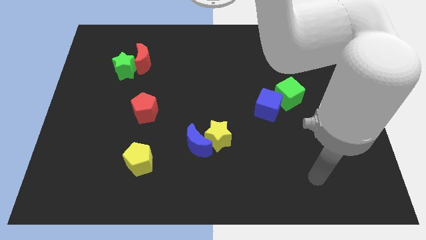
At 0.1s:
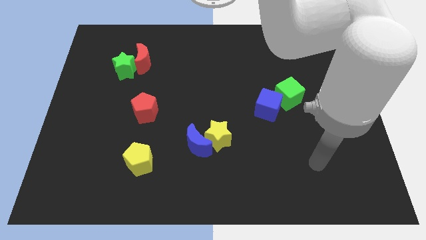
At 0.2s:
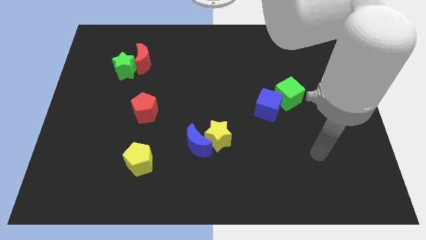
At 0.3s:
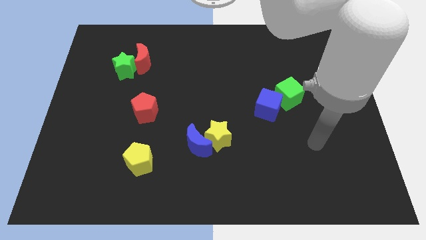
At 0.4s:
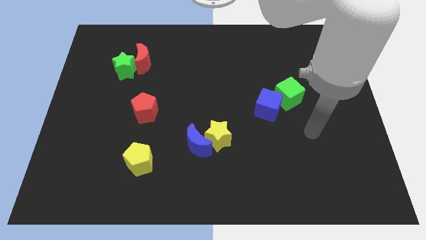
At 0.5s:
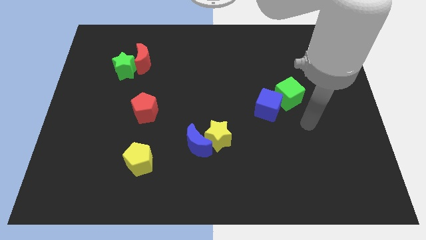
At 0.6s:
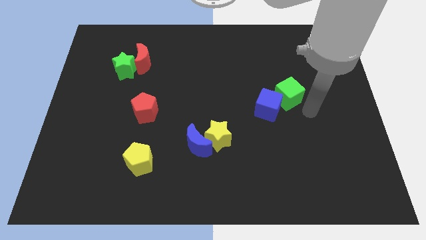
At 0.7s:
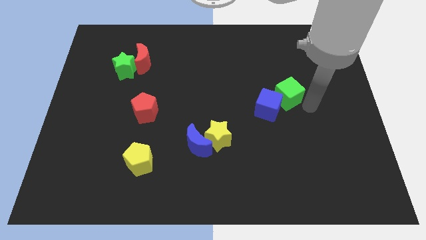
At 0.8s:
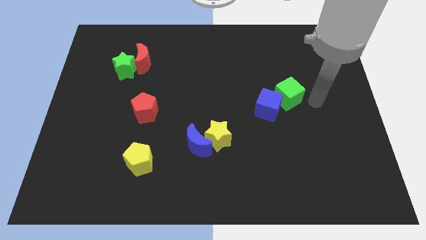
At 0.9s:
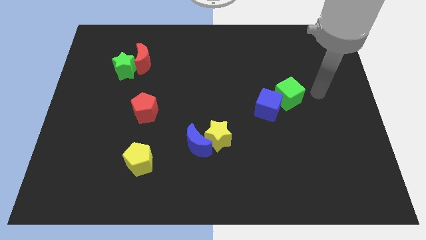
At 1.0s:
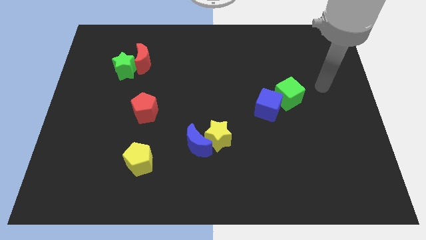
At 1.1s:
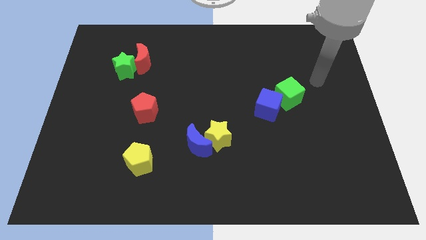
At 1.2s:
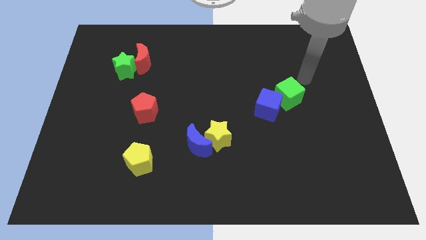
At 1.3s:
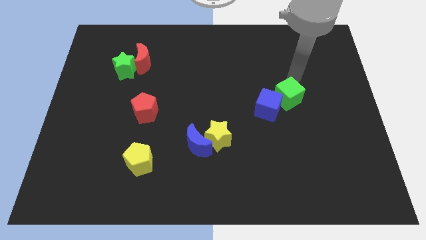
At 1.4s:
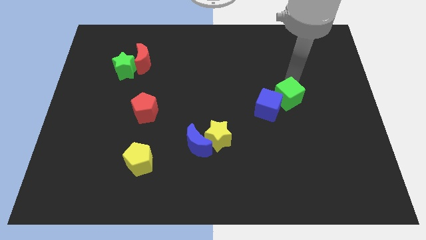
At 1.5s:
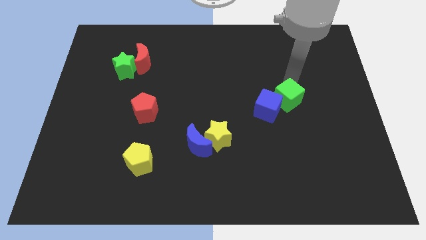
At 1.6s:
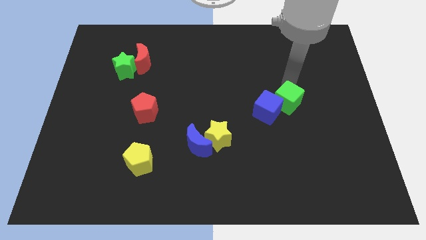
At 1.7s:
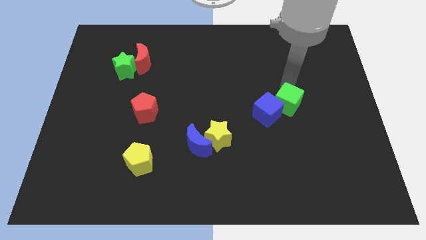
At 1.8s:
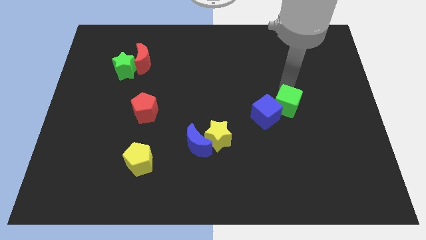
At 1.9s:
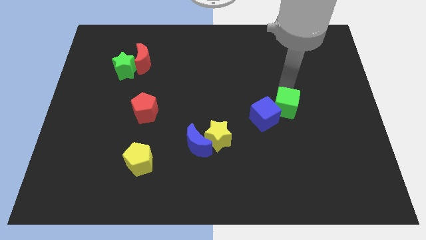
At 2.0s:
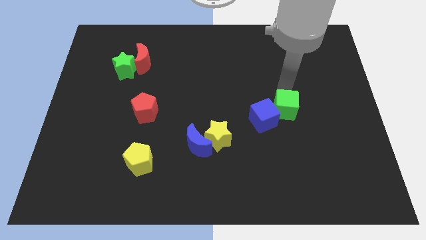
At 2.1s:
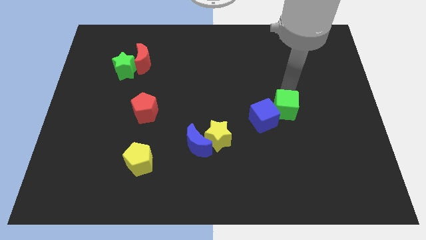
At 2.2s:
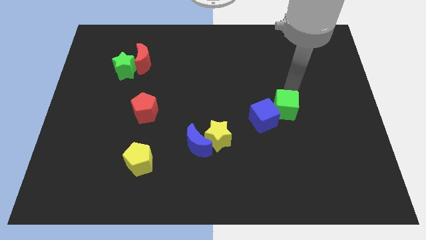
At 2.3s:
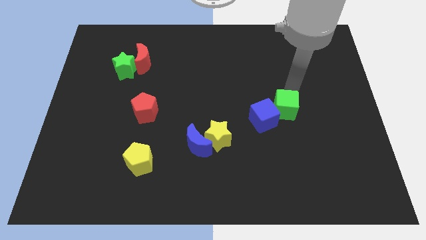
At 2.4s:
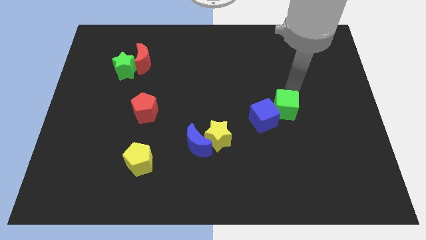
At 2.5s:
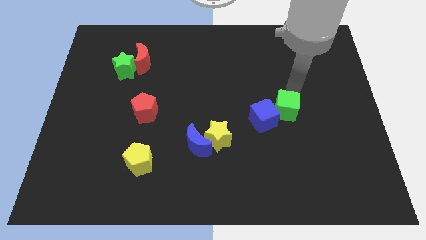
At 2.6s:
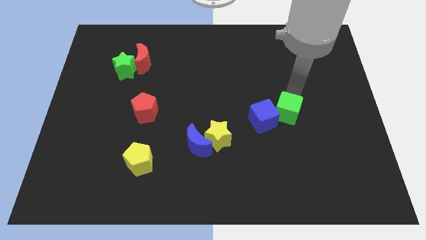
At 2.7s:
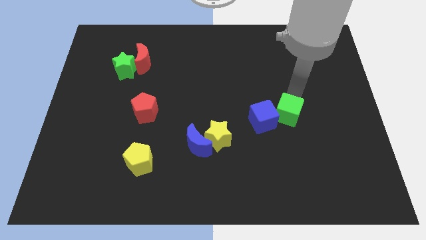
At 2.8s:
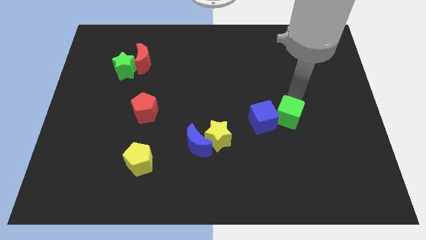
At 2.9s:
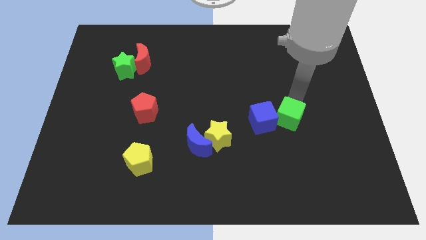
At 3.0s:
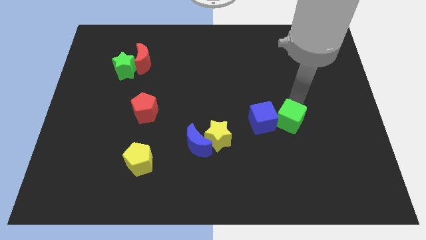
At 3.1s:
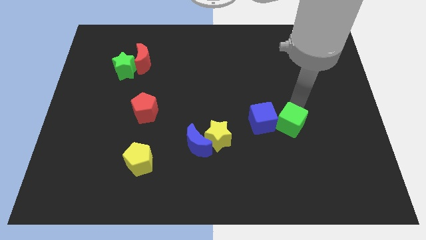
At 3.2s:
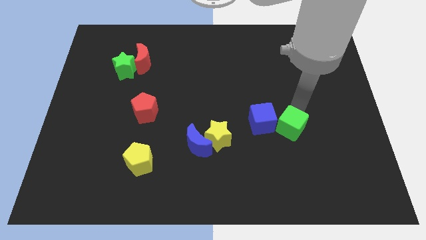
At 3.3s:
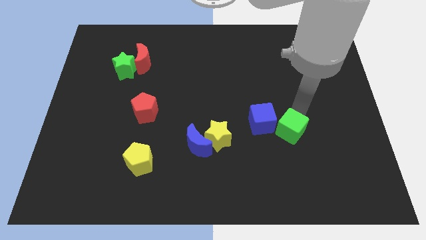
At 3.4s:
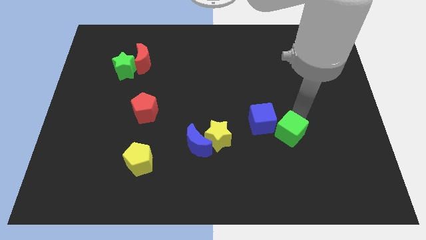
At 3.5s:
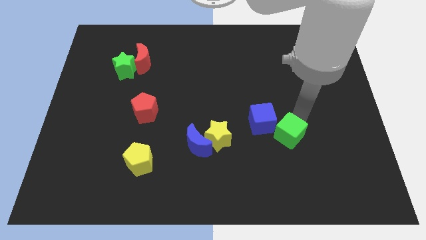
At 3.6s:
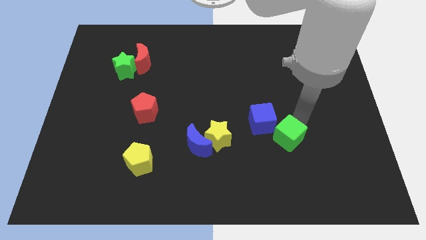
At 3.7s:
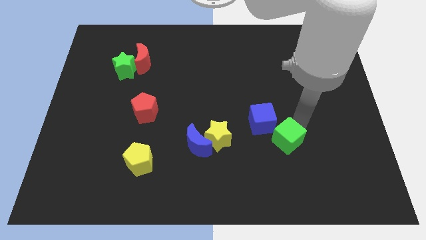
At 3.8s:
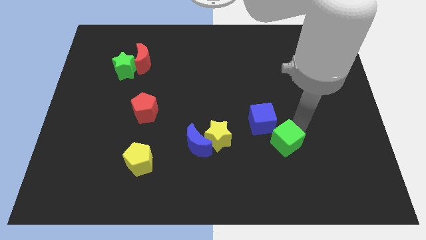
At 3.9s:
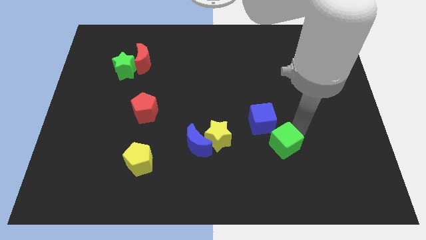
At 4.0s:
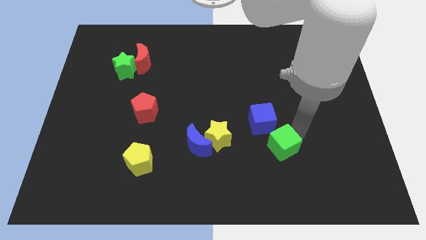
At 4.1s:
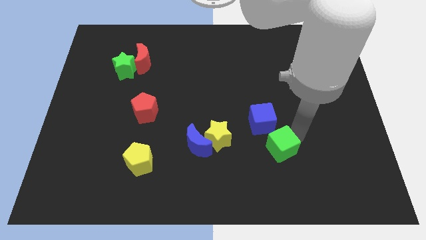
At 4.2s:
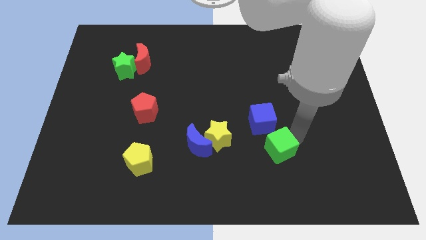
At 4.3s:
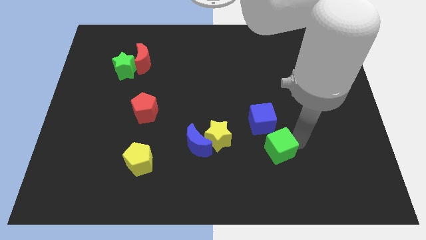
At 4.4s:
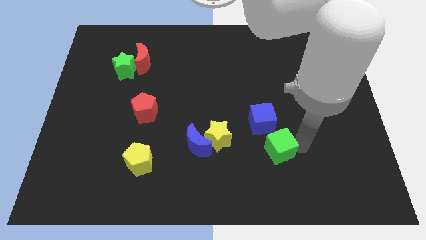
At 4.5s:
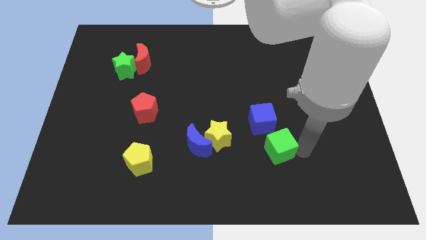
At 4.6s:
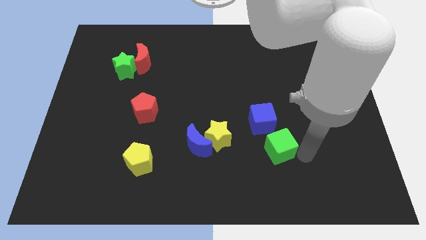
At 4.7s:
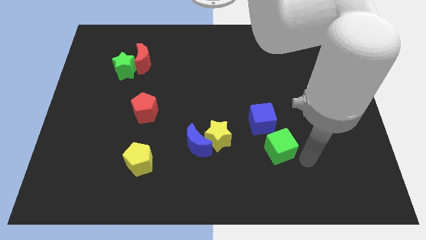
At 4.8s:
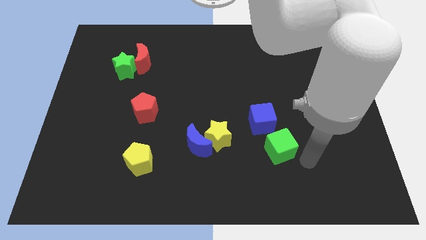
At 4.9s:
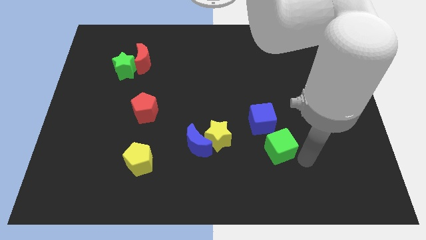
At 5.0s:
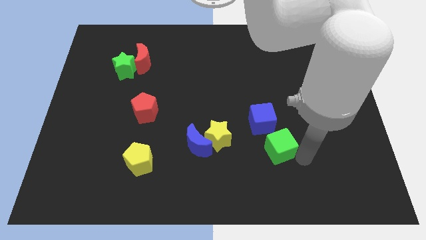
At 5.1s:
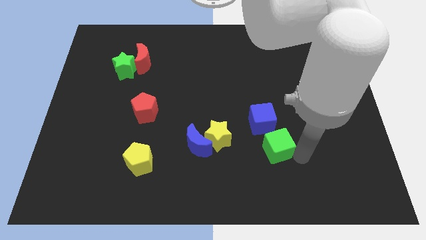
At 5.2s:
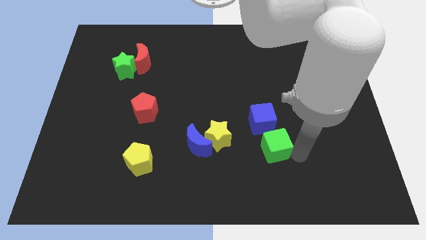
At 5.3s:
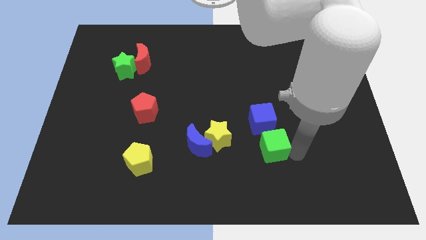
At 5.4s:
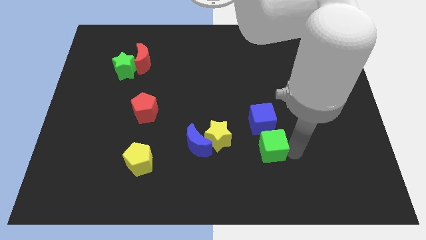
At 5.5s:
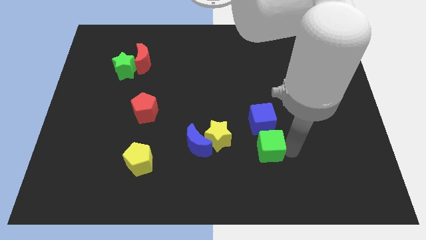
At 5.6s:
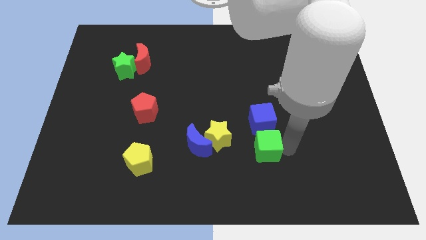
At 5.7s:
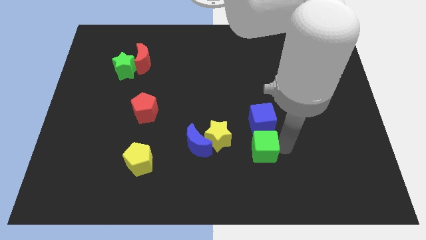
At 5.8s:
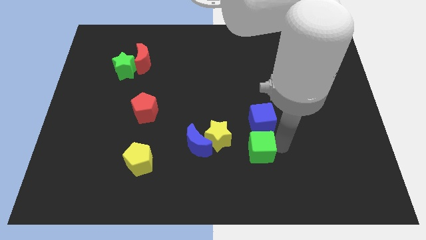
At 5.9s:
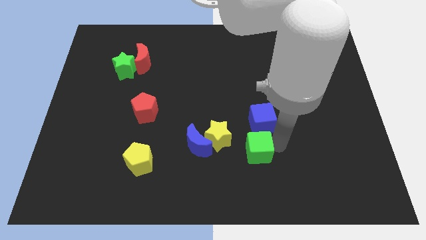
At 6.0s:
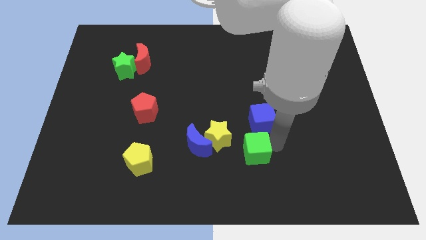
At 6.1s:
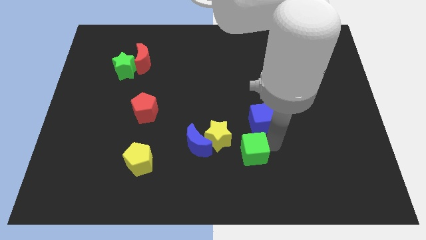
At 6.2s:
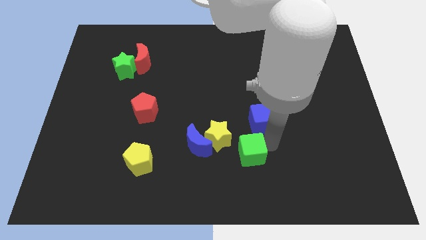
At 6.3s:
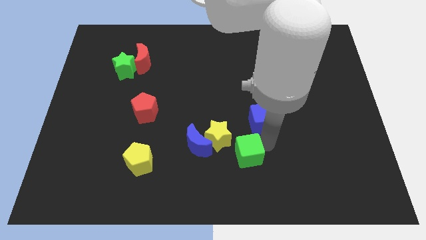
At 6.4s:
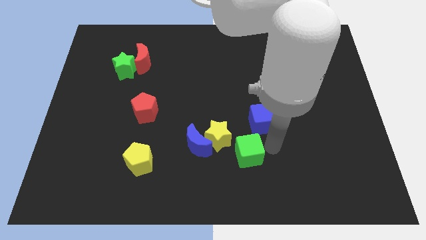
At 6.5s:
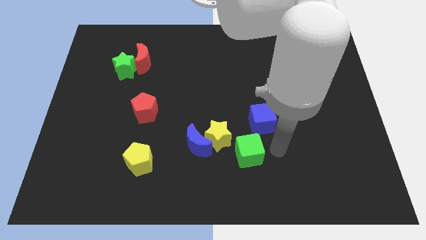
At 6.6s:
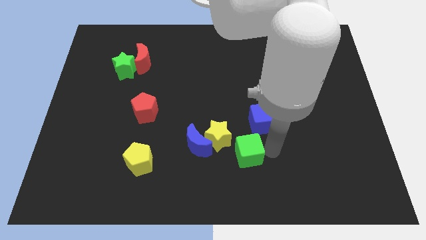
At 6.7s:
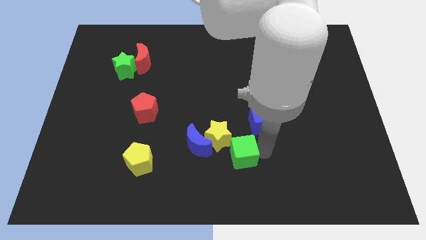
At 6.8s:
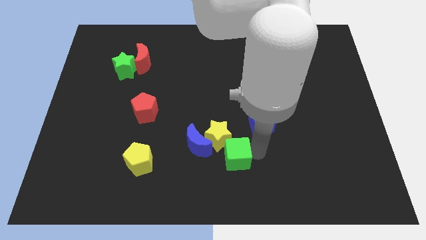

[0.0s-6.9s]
move the green cube down and left

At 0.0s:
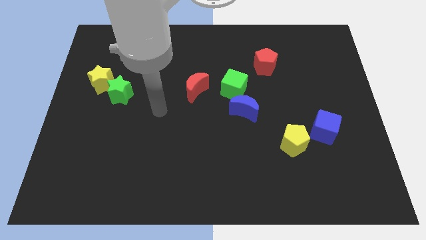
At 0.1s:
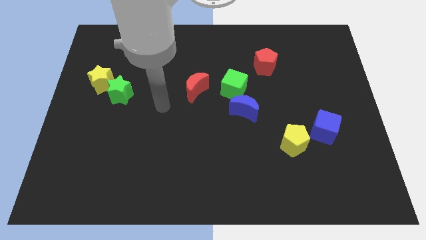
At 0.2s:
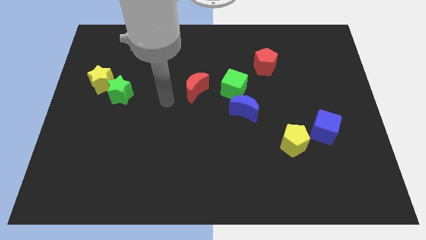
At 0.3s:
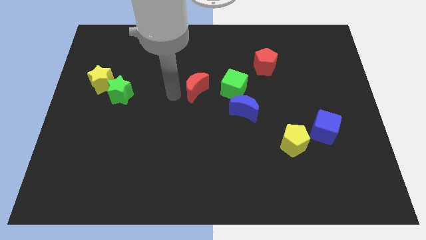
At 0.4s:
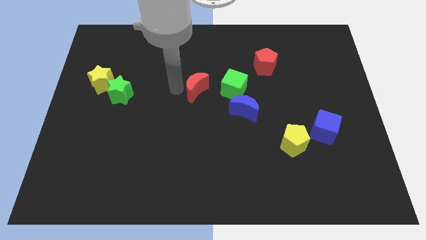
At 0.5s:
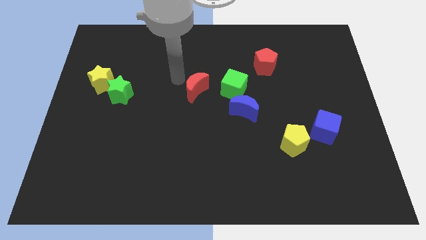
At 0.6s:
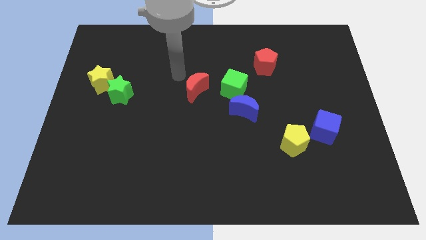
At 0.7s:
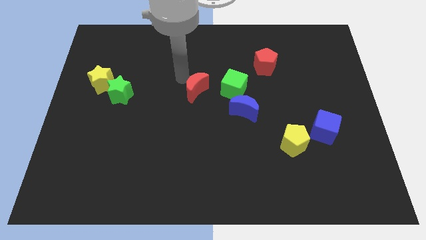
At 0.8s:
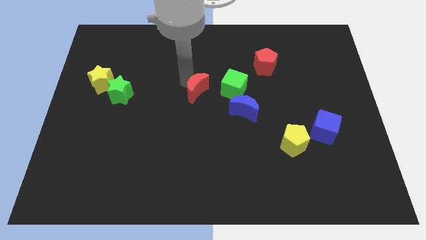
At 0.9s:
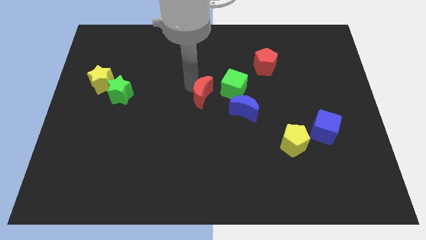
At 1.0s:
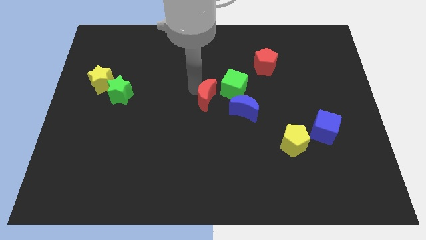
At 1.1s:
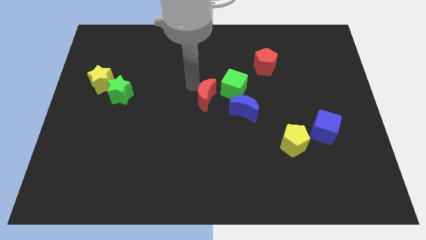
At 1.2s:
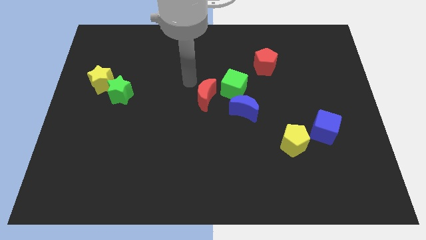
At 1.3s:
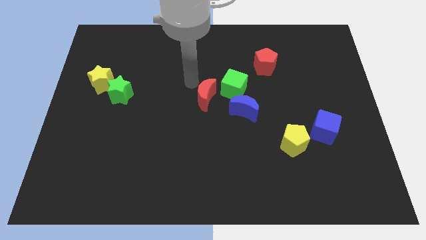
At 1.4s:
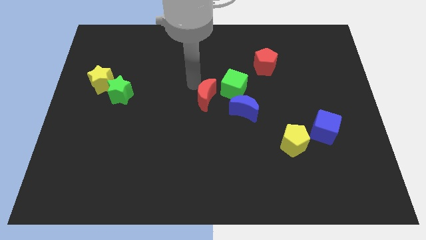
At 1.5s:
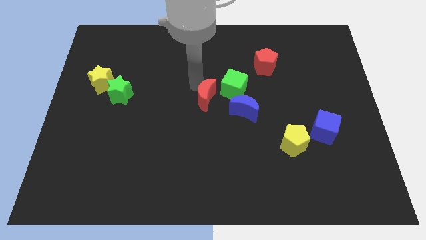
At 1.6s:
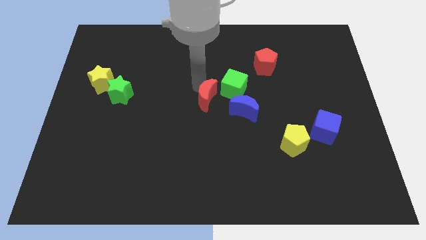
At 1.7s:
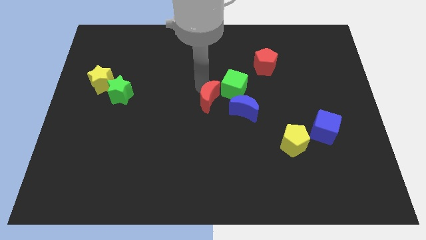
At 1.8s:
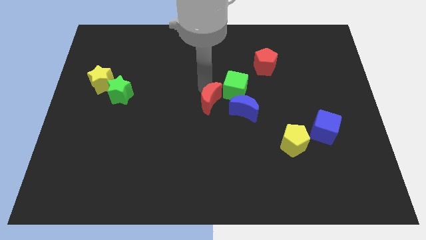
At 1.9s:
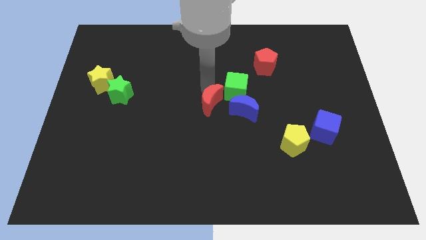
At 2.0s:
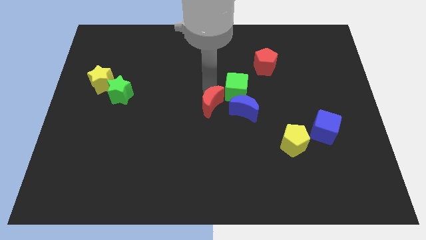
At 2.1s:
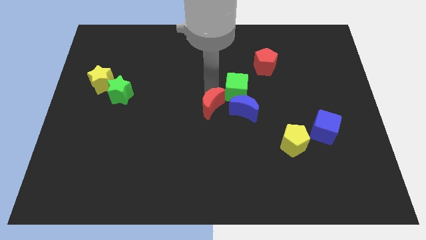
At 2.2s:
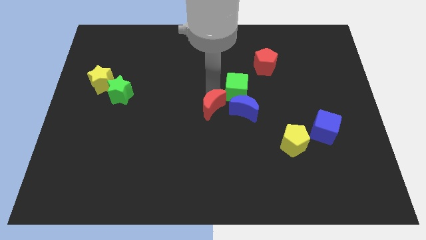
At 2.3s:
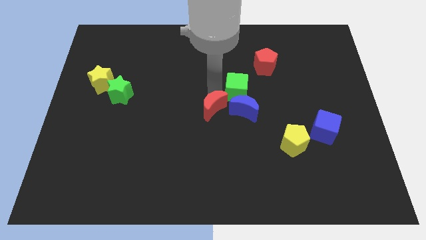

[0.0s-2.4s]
slide the red moon slightly diagonally downwards and to the right
